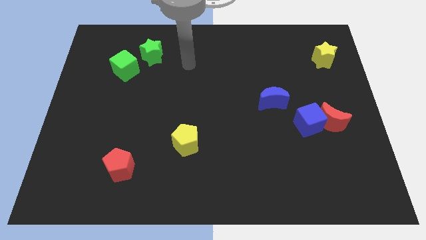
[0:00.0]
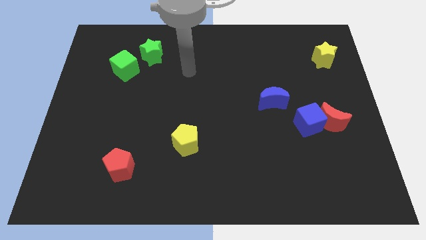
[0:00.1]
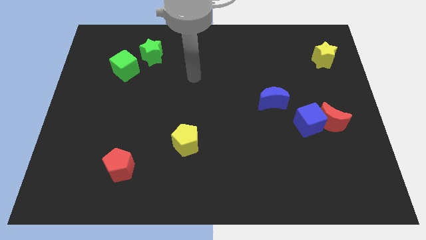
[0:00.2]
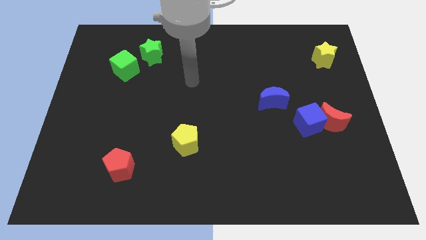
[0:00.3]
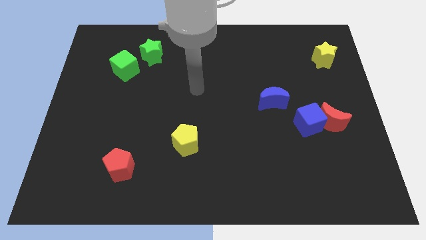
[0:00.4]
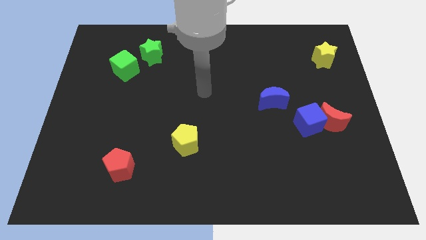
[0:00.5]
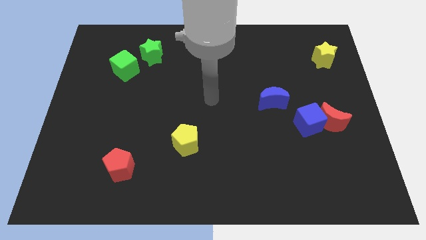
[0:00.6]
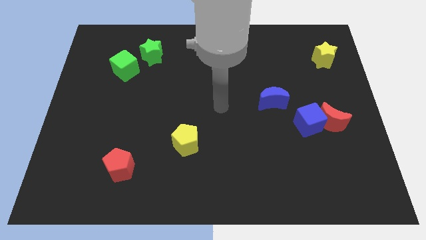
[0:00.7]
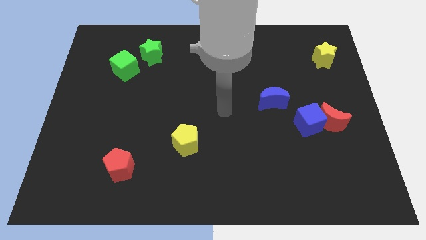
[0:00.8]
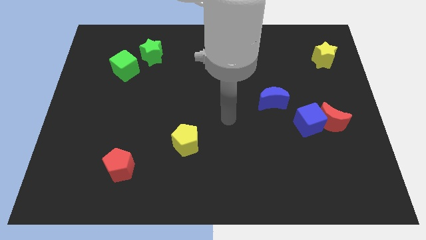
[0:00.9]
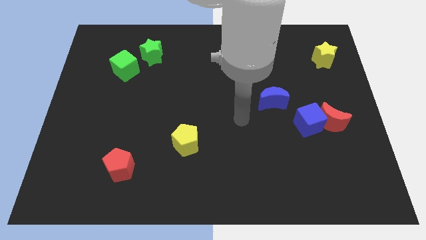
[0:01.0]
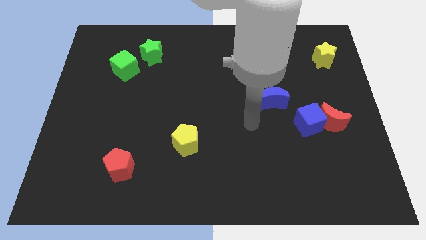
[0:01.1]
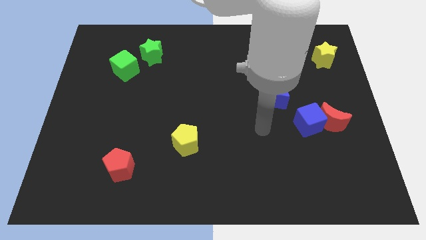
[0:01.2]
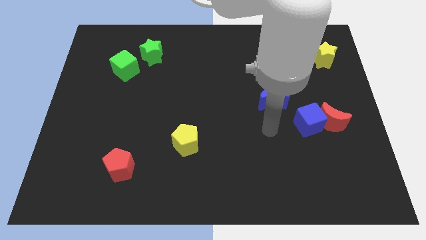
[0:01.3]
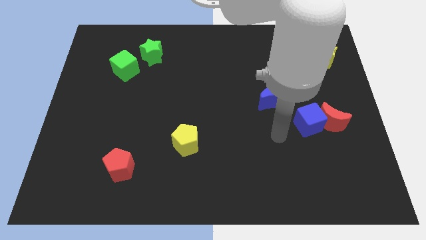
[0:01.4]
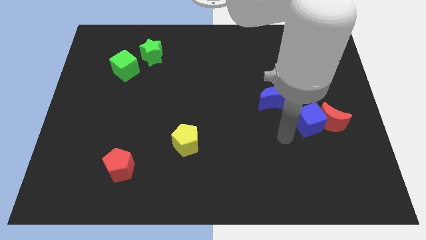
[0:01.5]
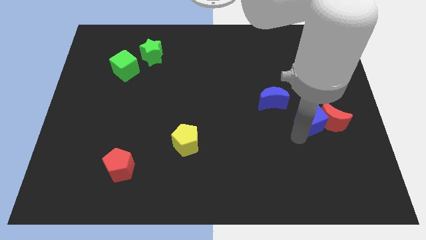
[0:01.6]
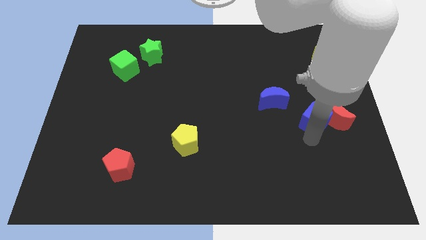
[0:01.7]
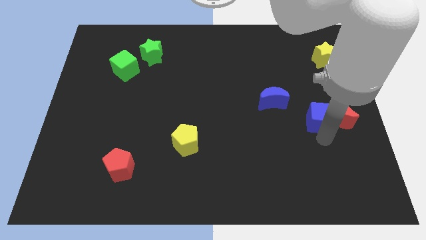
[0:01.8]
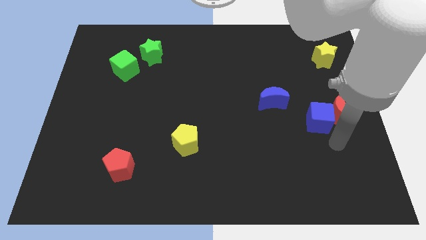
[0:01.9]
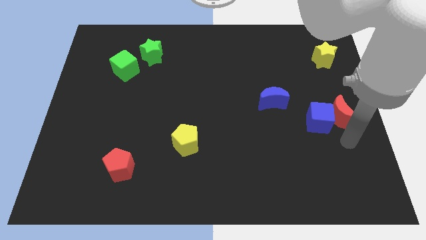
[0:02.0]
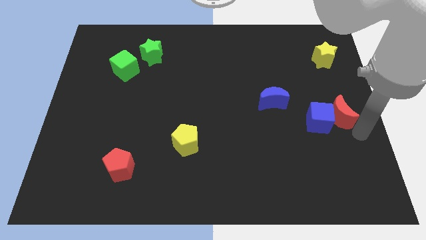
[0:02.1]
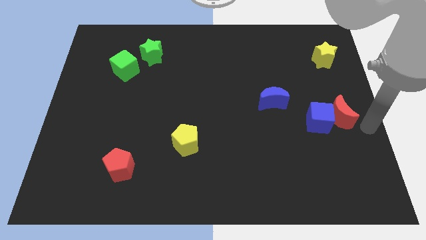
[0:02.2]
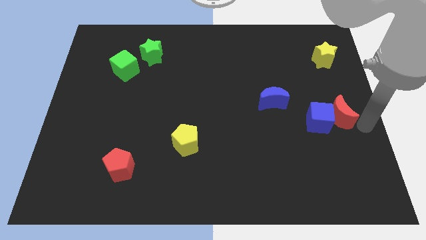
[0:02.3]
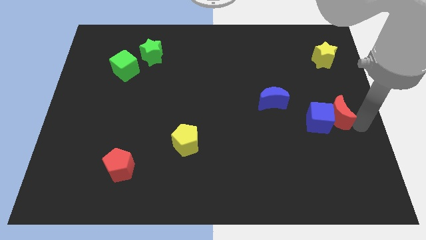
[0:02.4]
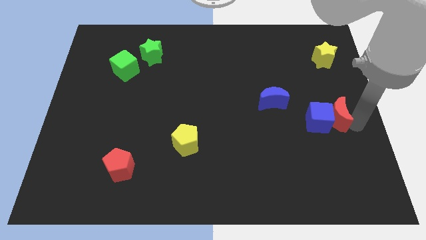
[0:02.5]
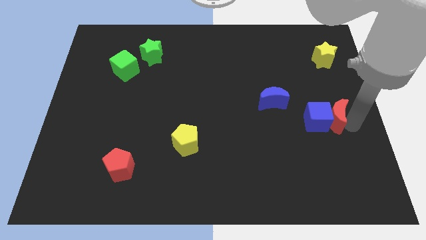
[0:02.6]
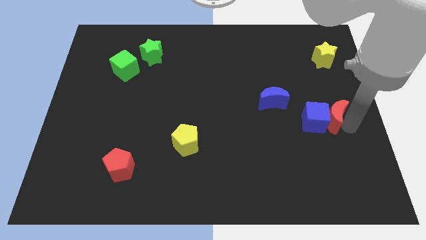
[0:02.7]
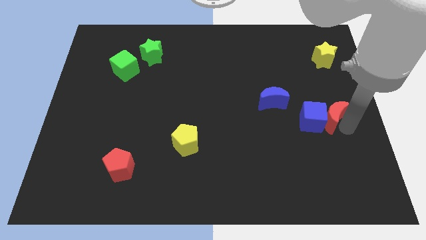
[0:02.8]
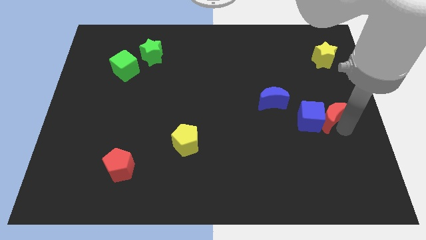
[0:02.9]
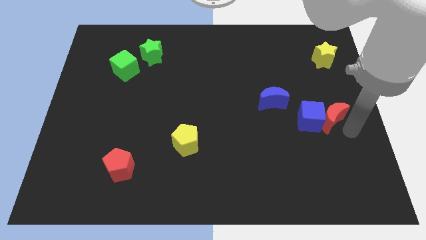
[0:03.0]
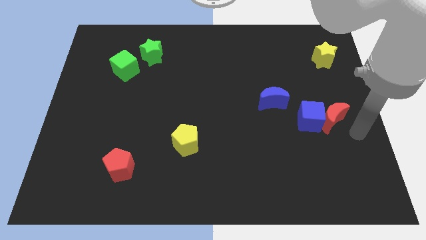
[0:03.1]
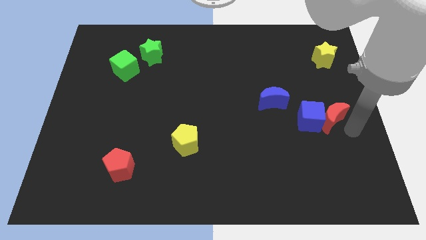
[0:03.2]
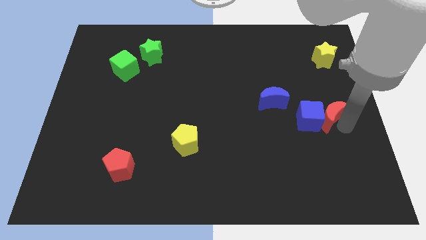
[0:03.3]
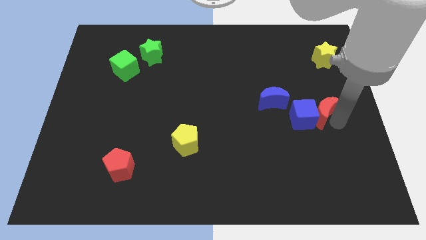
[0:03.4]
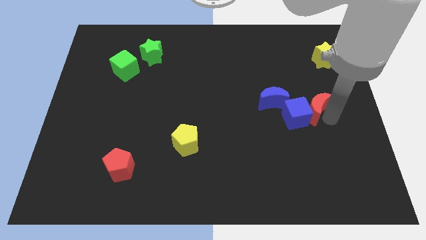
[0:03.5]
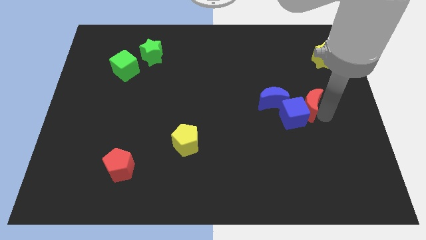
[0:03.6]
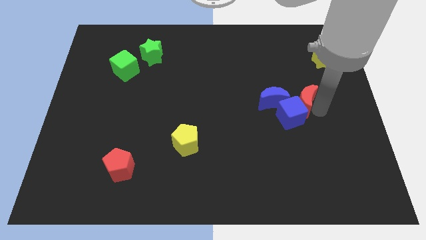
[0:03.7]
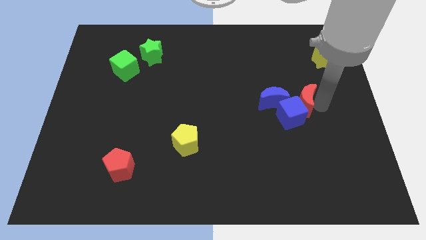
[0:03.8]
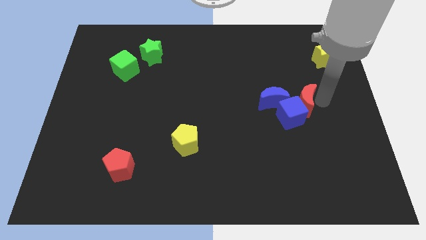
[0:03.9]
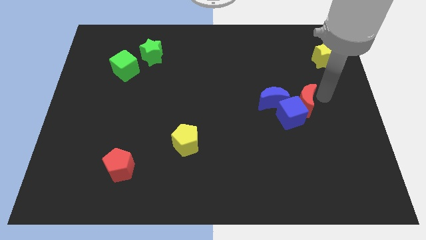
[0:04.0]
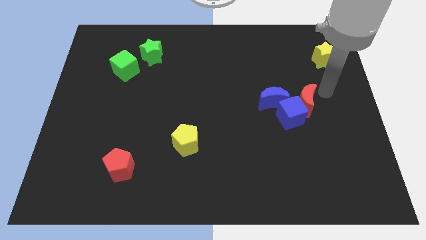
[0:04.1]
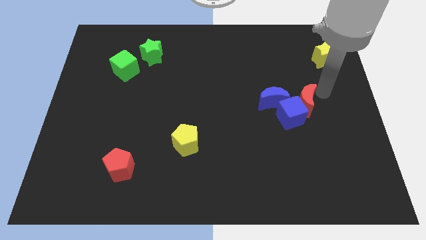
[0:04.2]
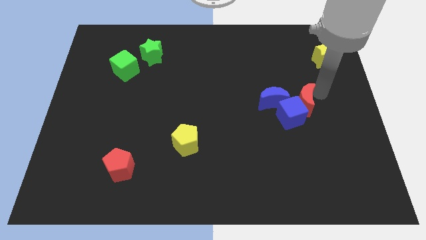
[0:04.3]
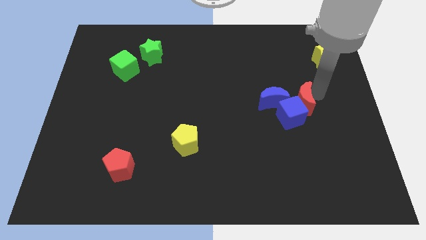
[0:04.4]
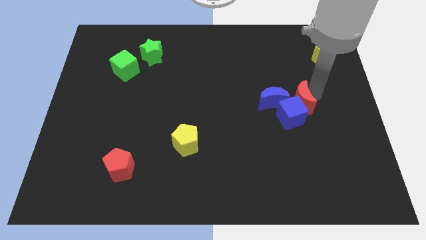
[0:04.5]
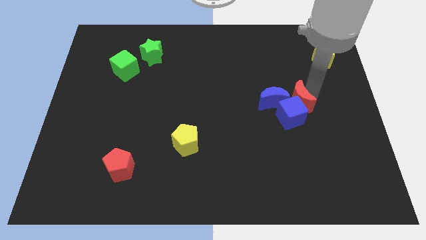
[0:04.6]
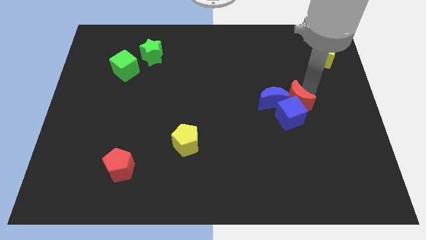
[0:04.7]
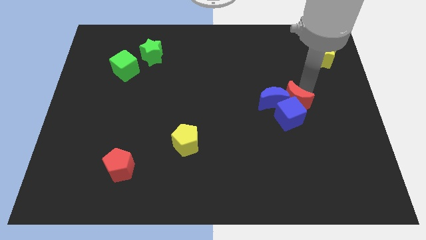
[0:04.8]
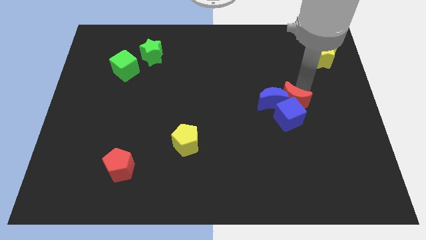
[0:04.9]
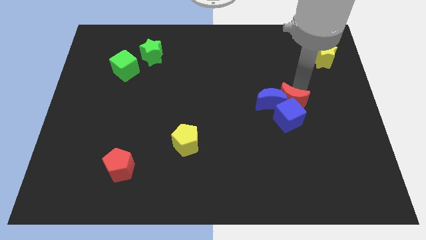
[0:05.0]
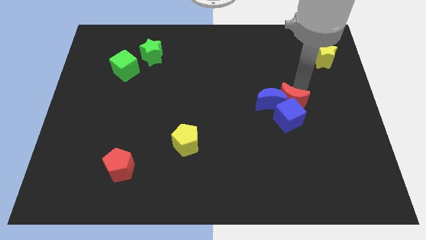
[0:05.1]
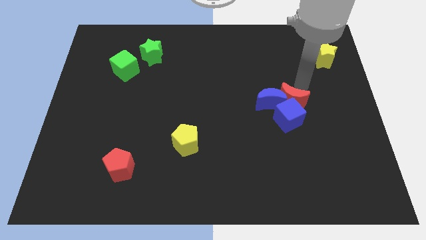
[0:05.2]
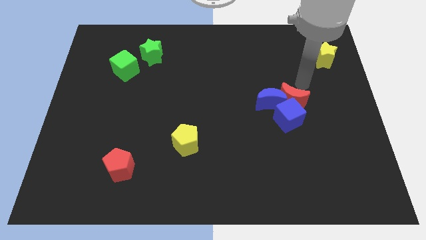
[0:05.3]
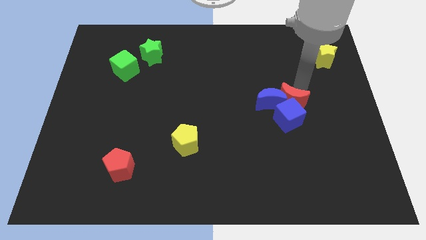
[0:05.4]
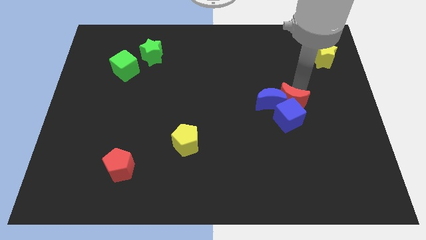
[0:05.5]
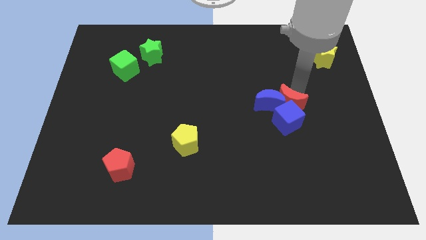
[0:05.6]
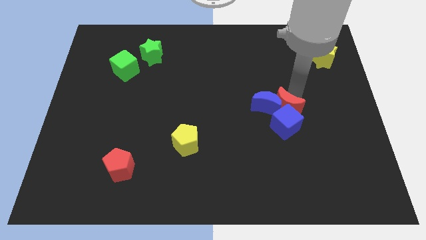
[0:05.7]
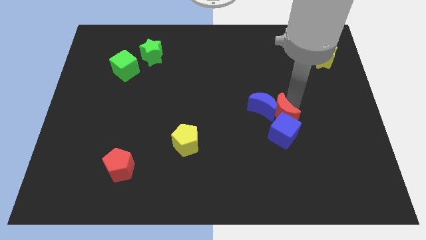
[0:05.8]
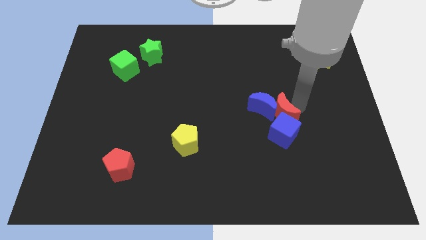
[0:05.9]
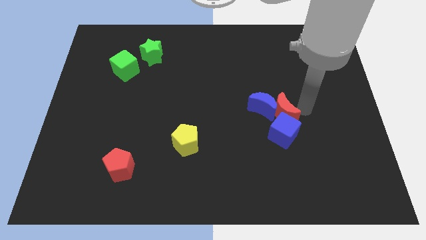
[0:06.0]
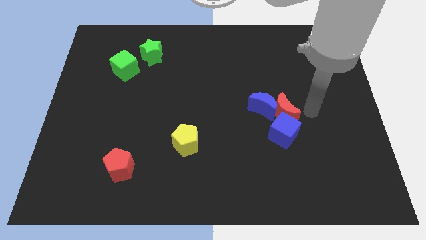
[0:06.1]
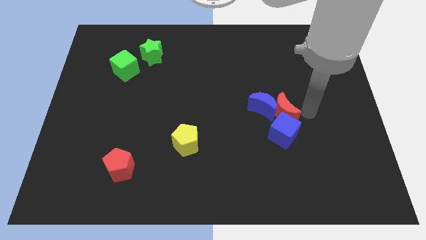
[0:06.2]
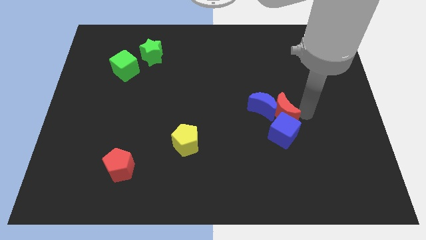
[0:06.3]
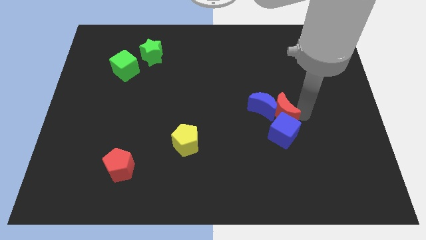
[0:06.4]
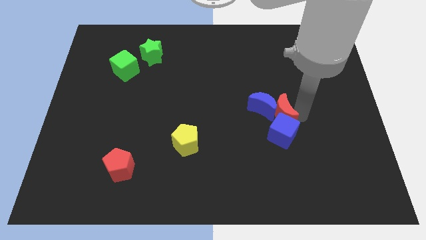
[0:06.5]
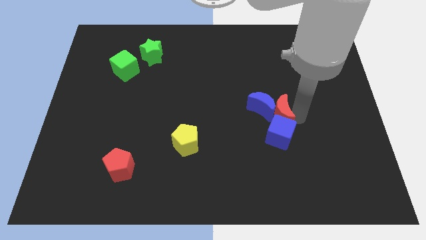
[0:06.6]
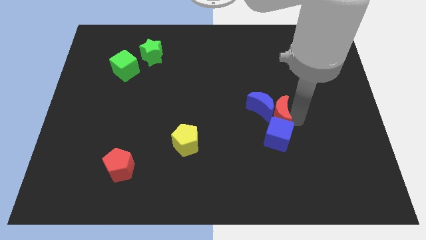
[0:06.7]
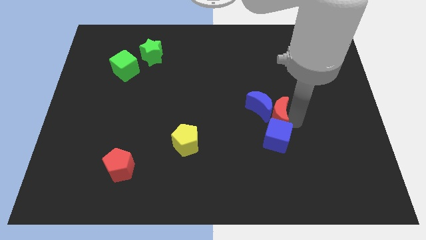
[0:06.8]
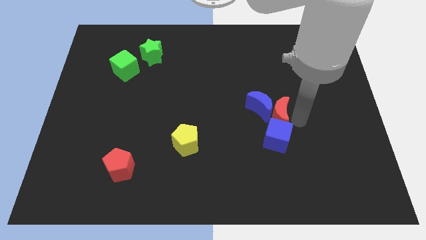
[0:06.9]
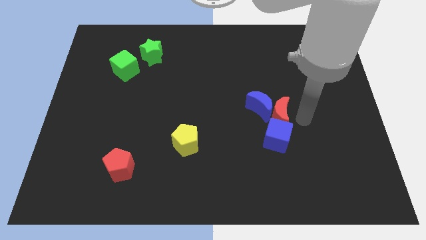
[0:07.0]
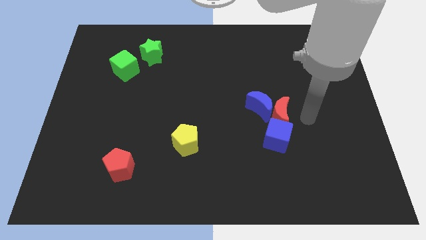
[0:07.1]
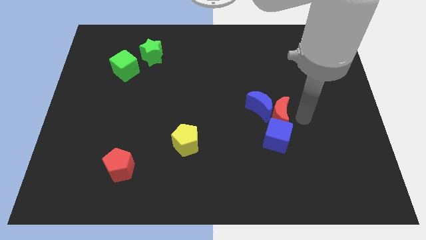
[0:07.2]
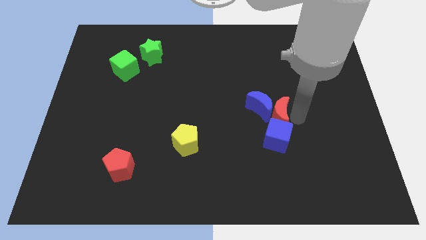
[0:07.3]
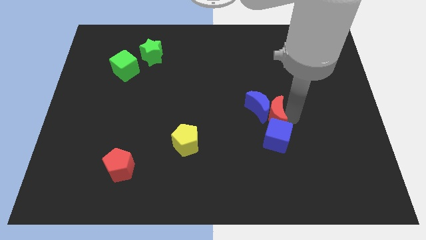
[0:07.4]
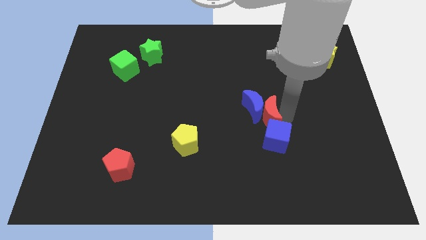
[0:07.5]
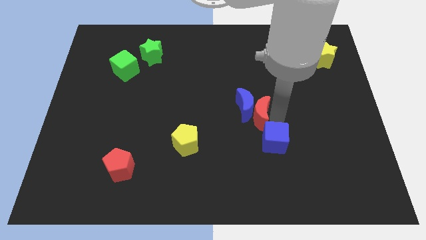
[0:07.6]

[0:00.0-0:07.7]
move the red moon to the center of the board
